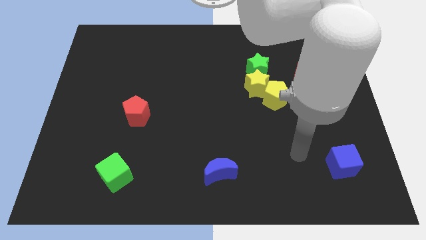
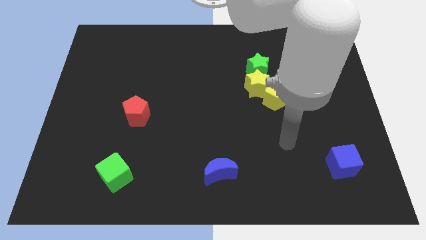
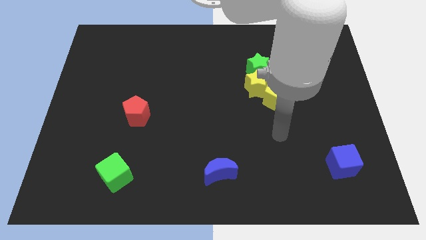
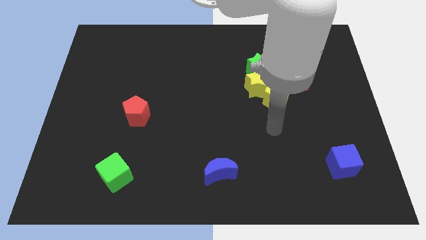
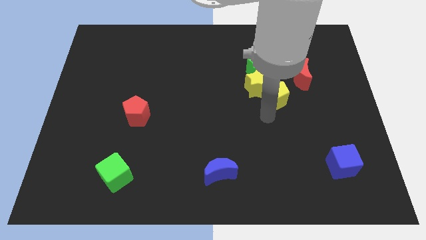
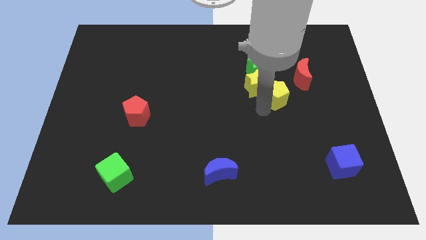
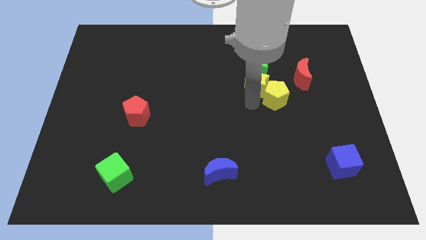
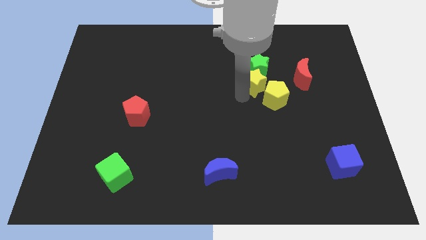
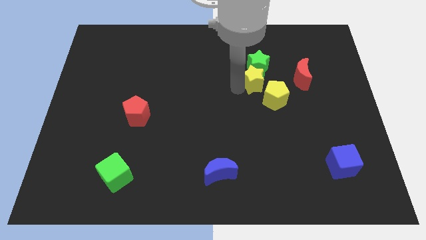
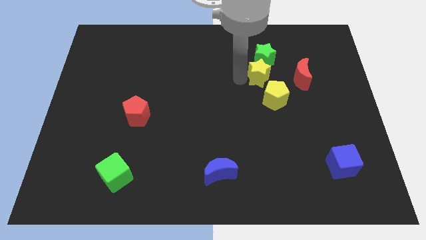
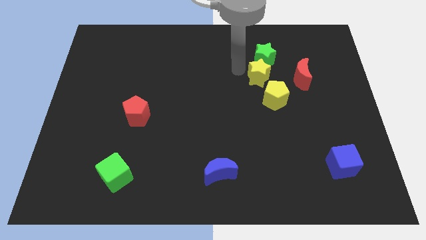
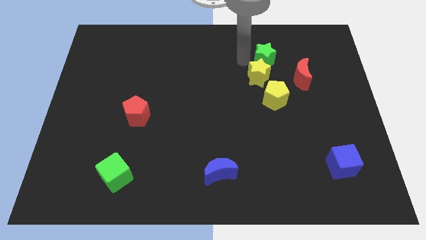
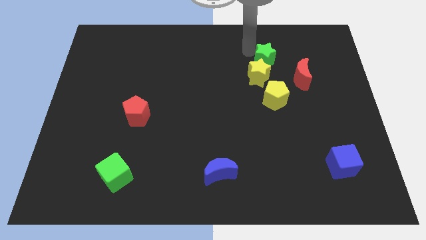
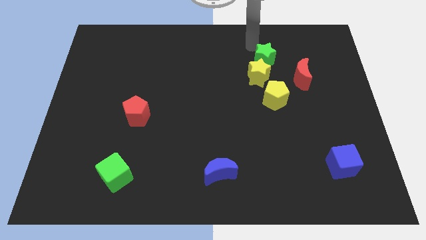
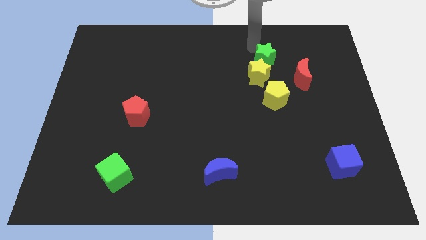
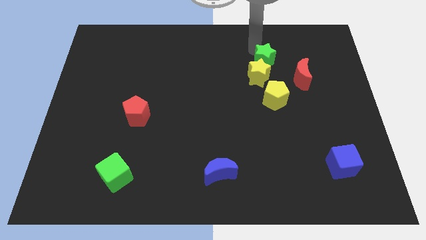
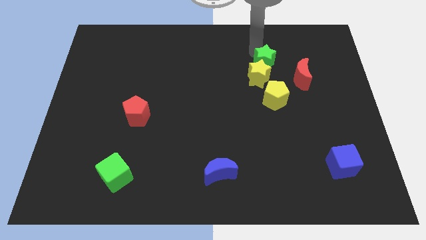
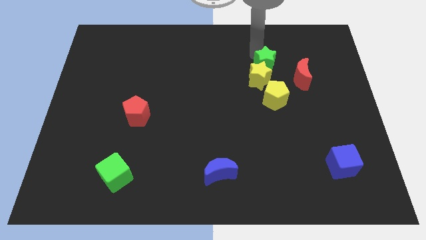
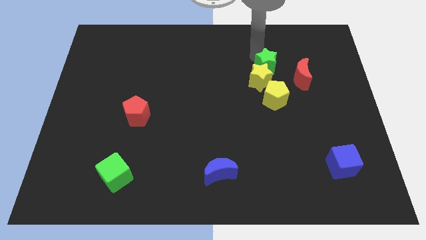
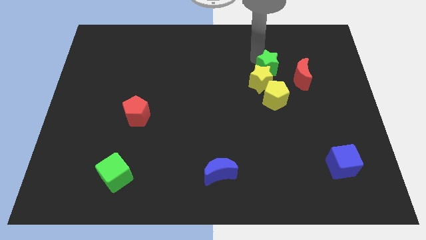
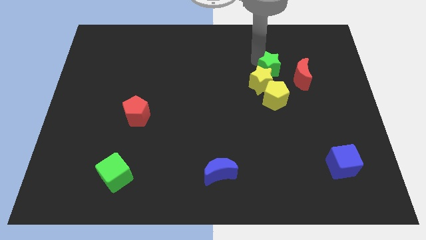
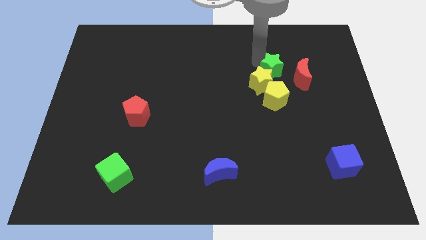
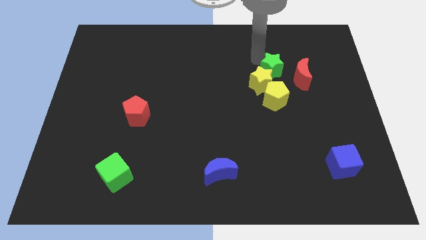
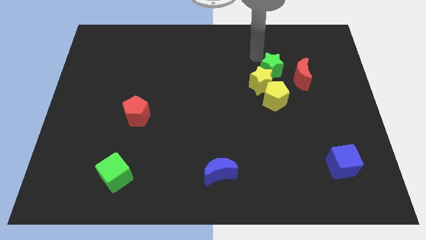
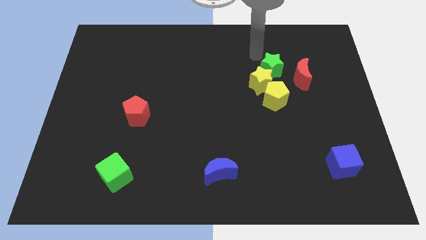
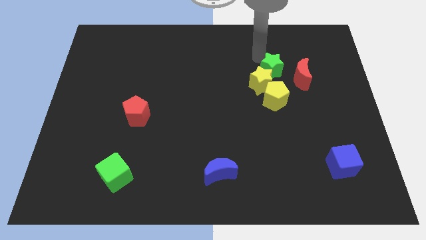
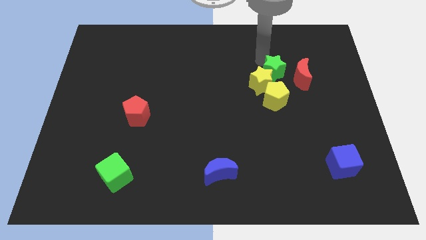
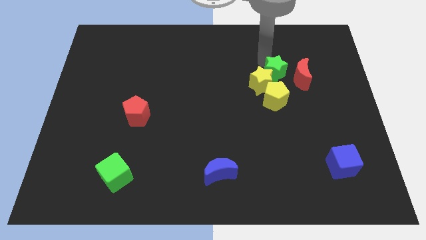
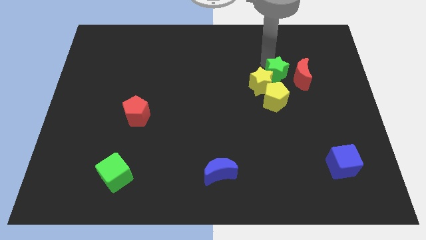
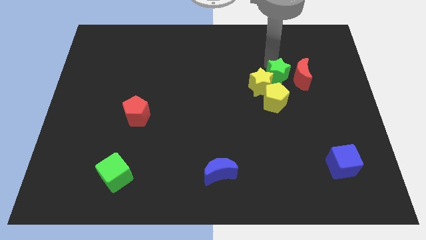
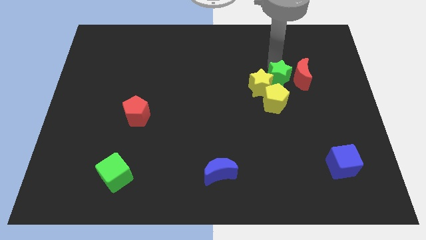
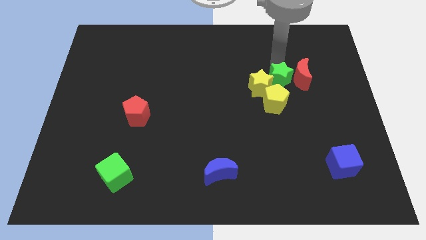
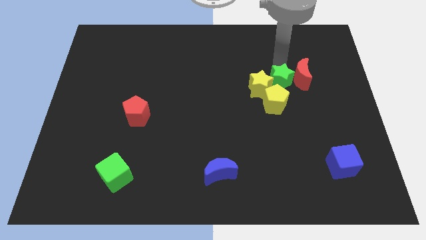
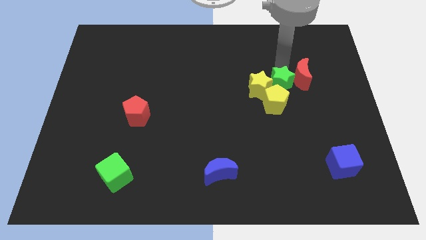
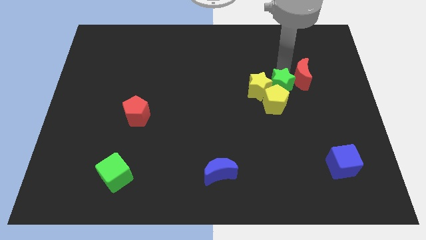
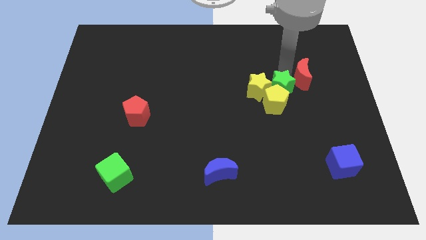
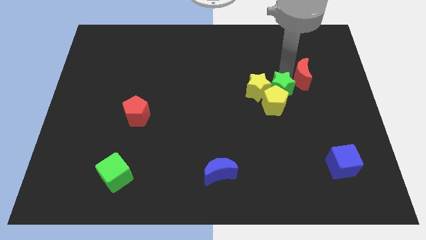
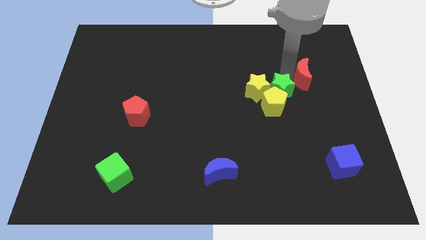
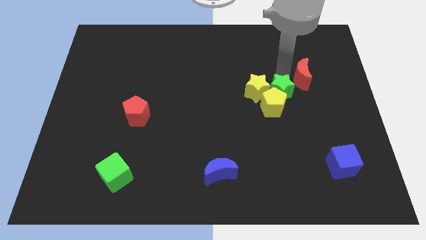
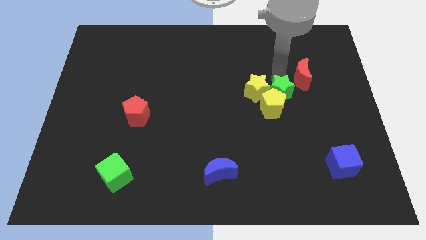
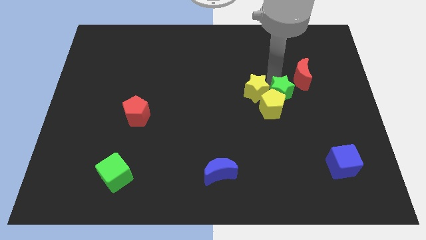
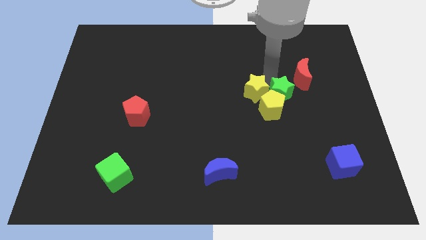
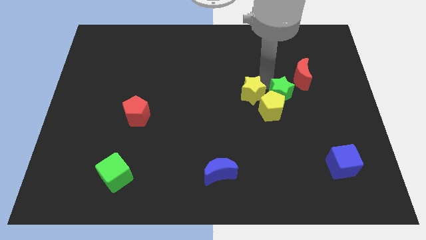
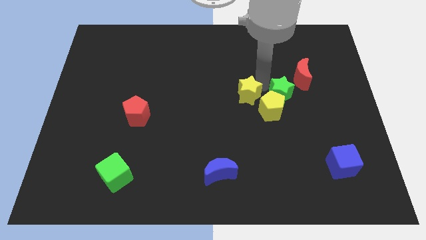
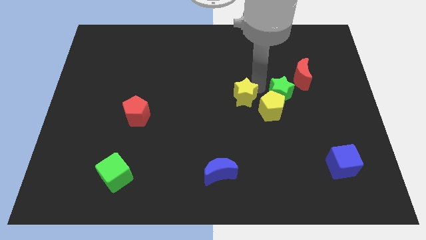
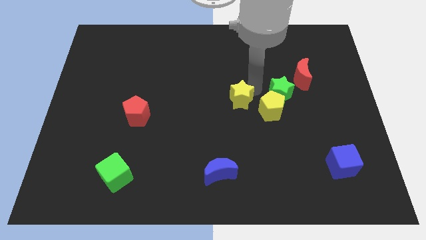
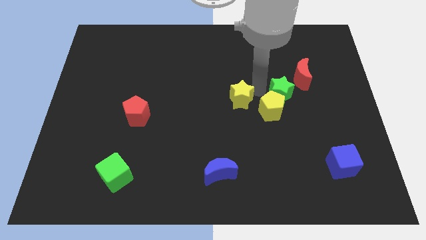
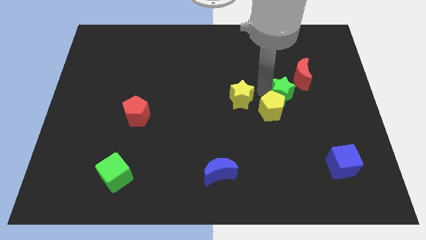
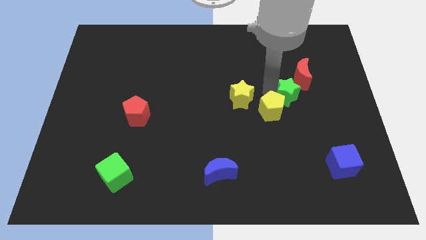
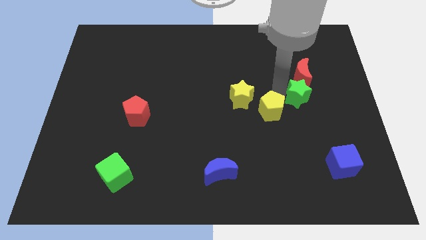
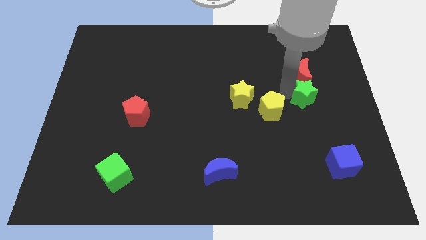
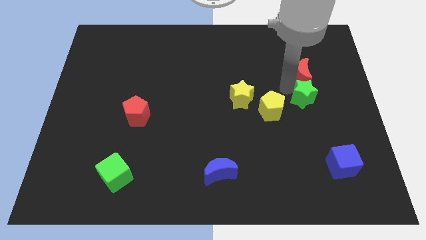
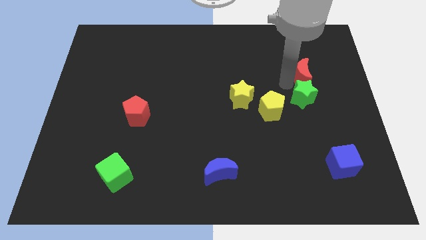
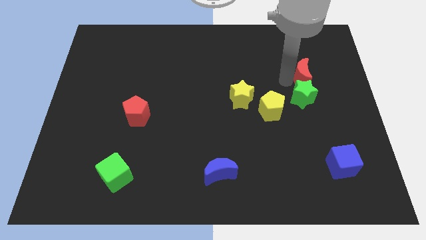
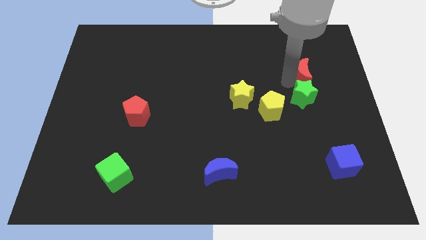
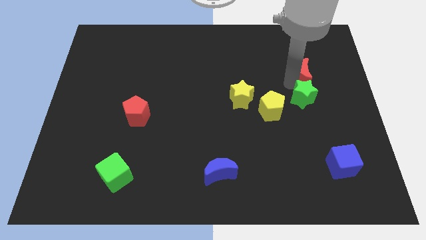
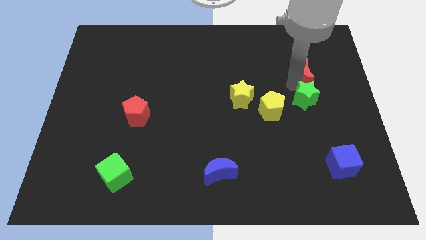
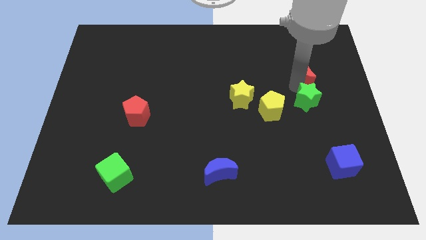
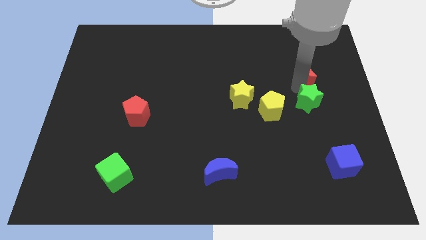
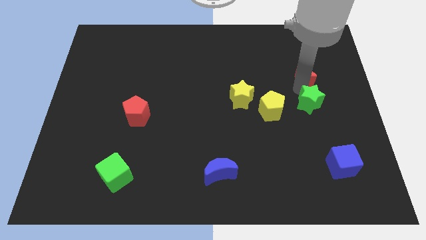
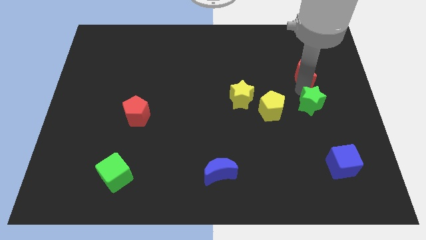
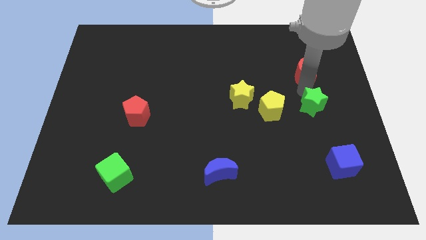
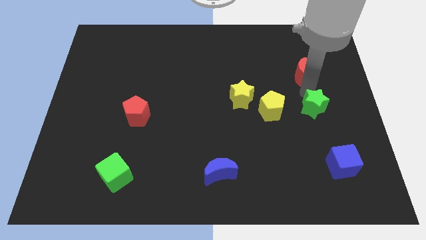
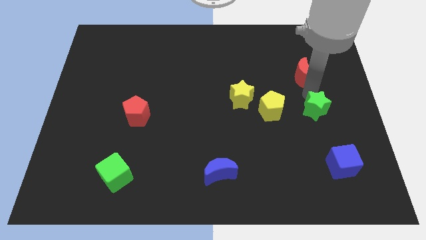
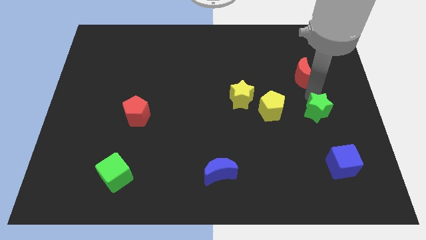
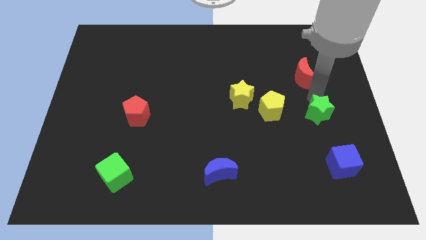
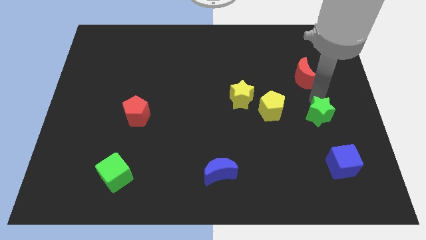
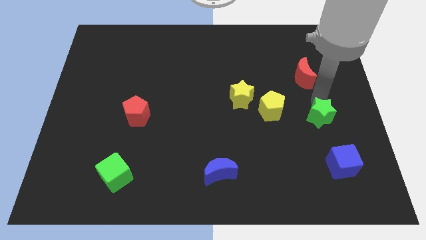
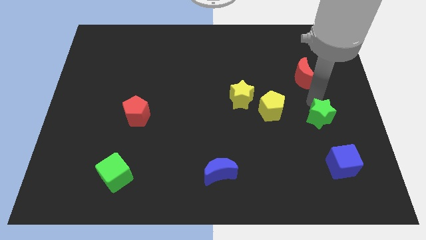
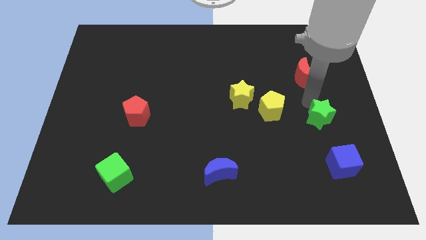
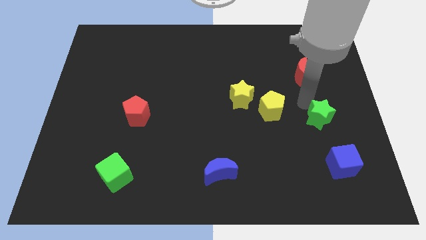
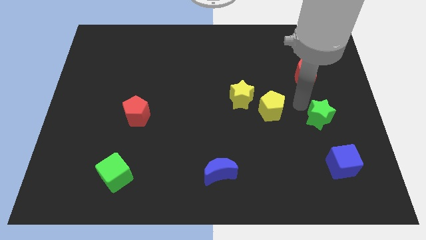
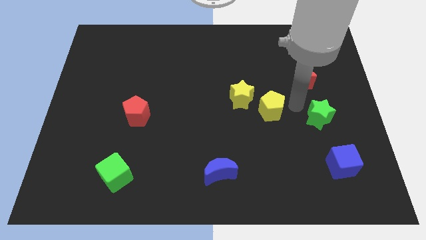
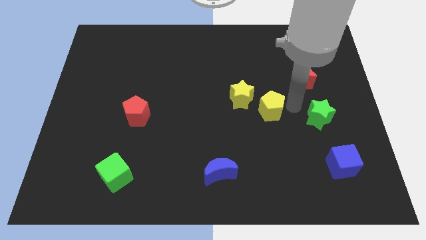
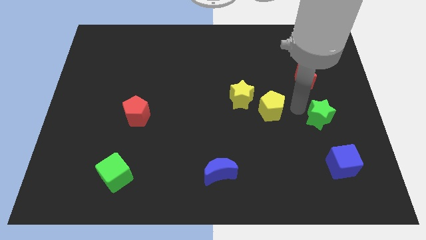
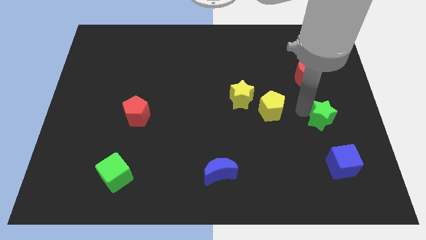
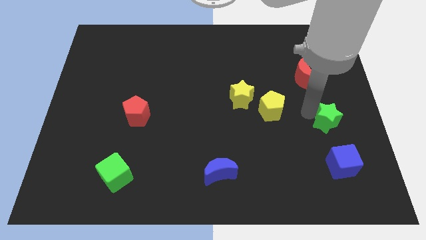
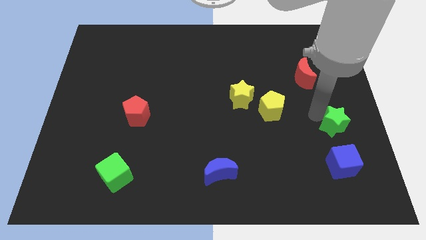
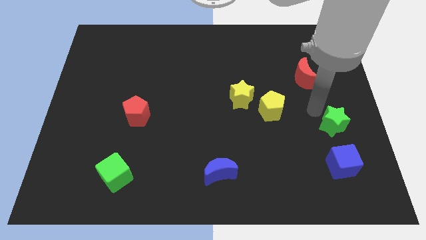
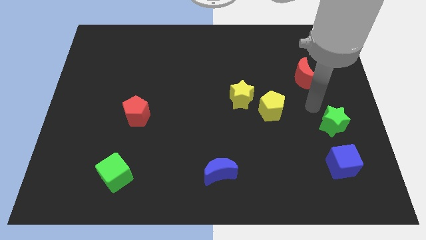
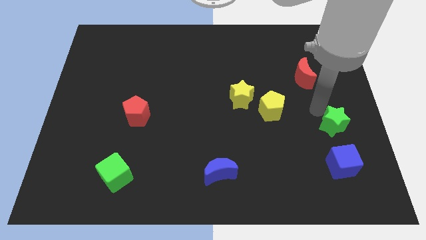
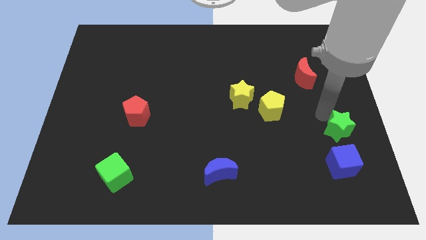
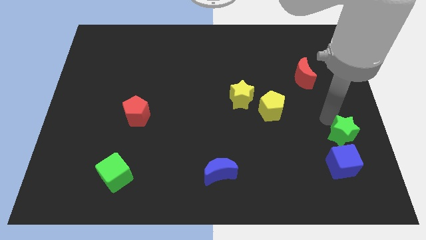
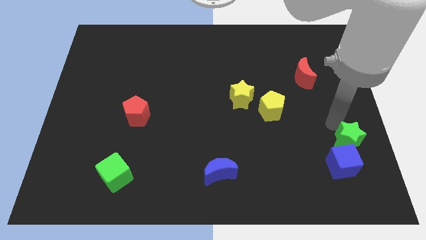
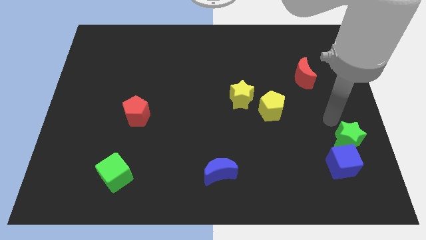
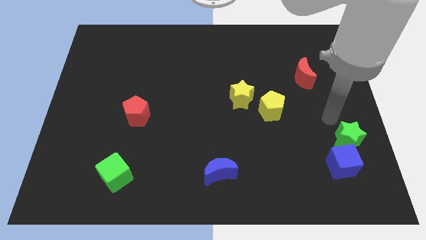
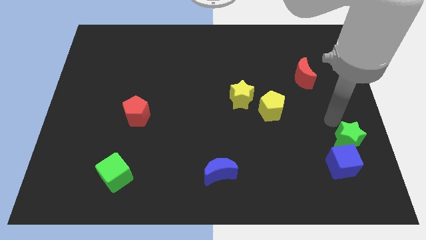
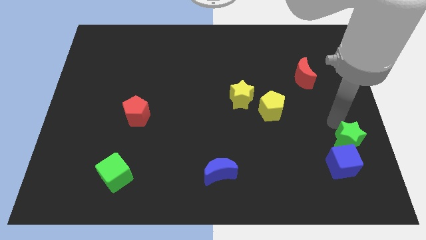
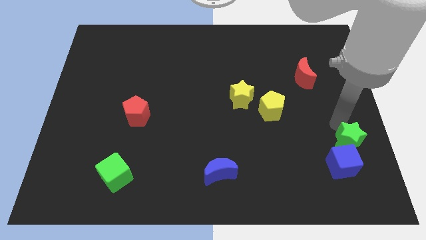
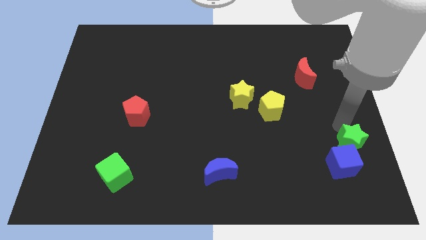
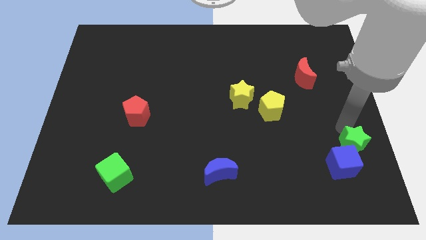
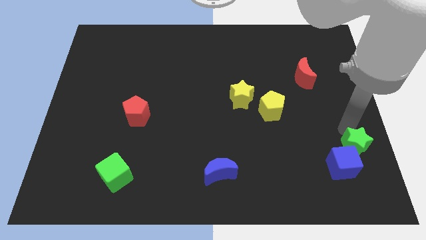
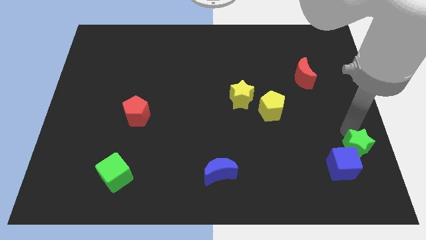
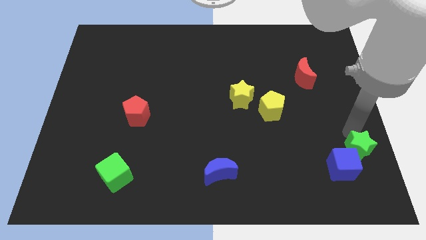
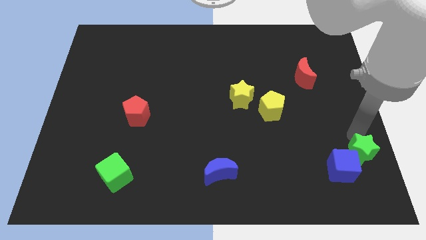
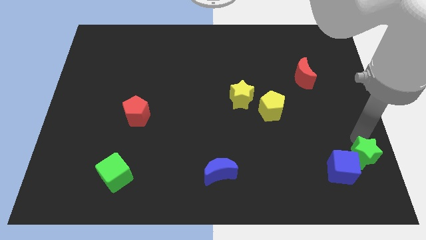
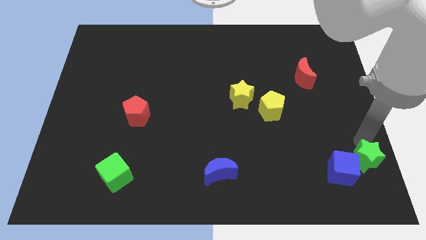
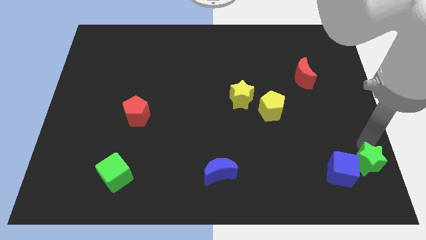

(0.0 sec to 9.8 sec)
put the green star to the lower right corner
